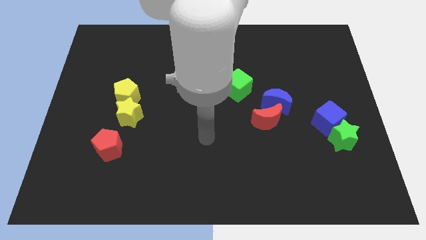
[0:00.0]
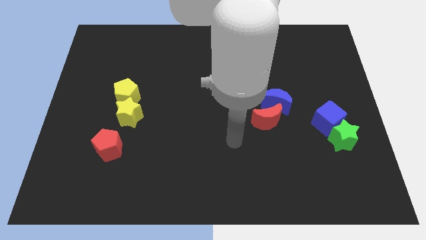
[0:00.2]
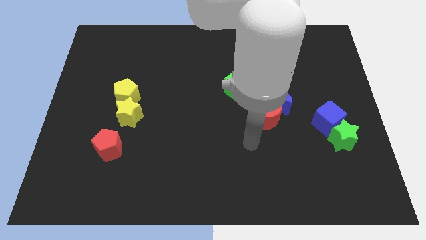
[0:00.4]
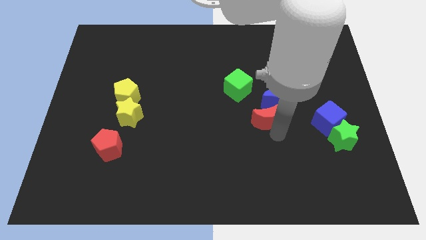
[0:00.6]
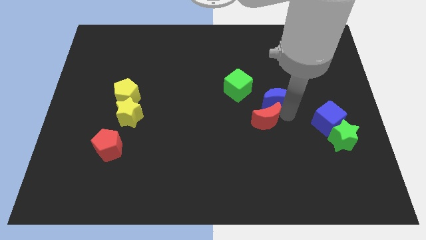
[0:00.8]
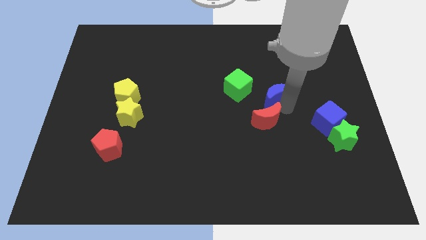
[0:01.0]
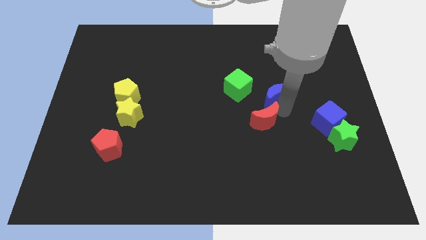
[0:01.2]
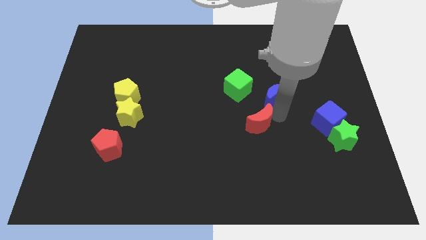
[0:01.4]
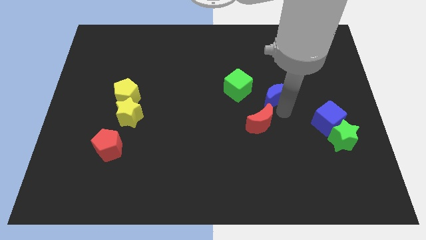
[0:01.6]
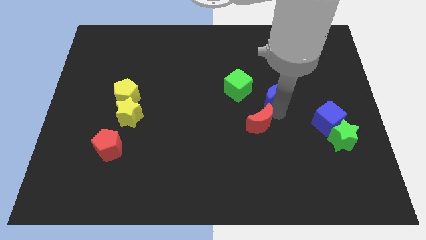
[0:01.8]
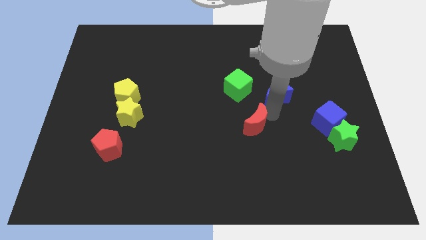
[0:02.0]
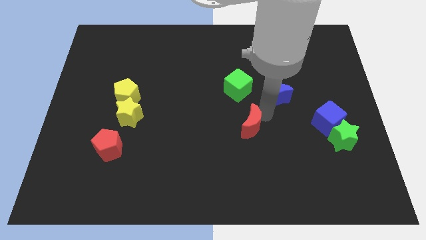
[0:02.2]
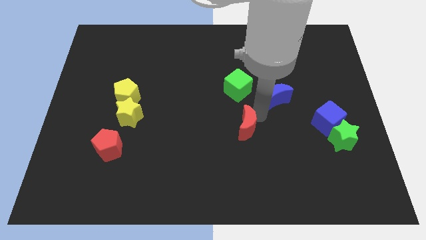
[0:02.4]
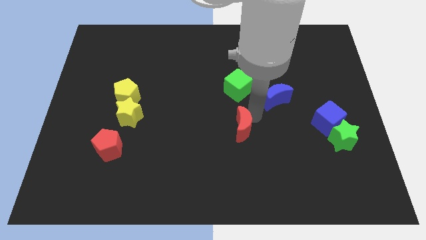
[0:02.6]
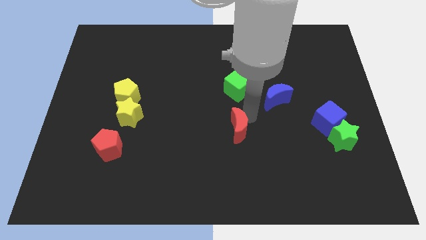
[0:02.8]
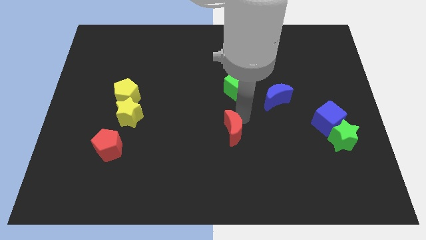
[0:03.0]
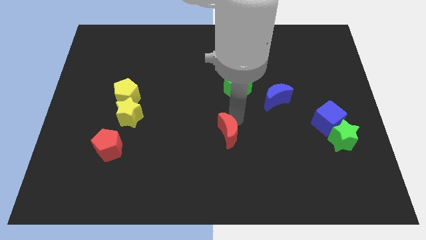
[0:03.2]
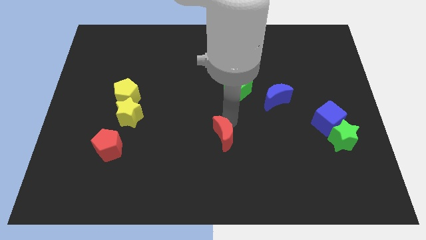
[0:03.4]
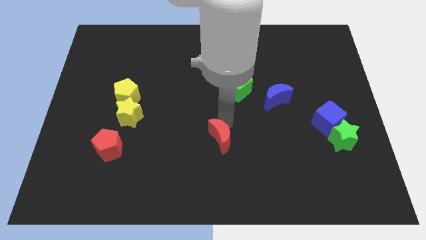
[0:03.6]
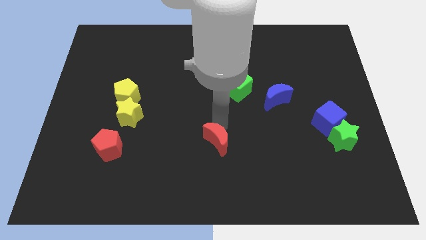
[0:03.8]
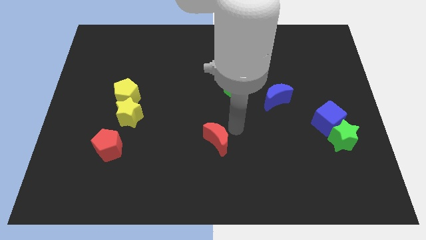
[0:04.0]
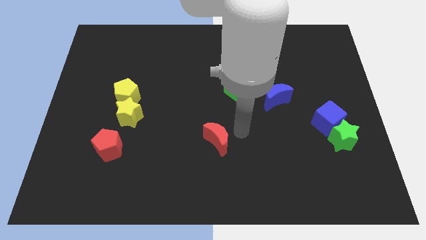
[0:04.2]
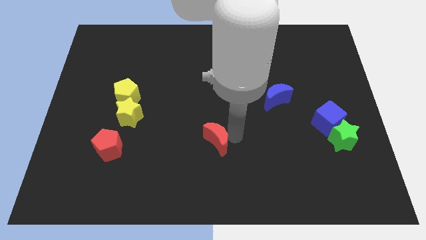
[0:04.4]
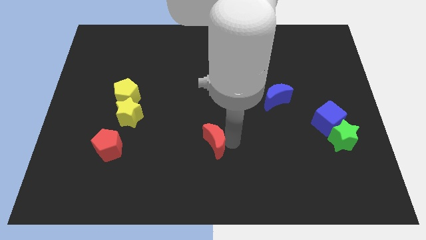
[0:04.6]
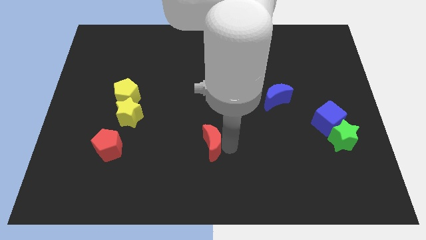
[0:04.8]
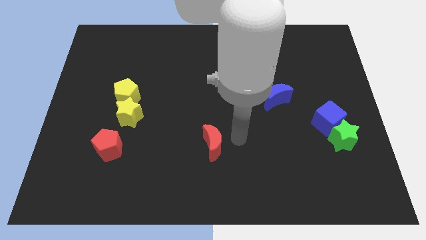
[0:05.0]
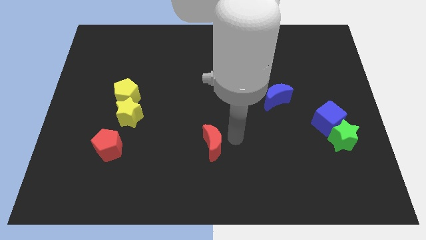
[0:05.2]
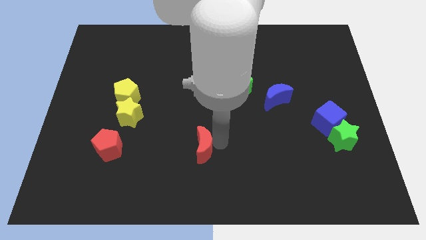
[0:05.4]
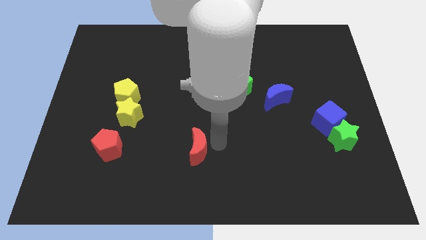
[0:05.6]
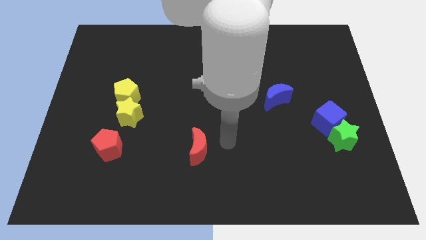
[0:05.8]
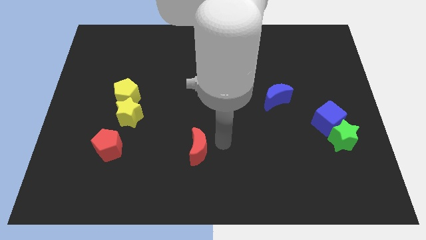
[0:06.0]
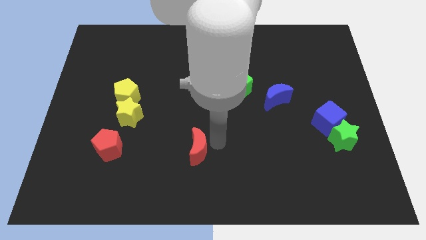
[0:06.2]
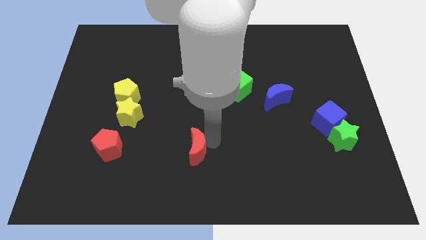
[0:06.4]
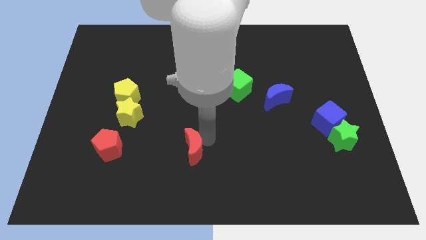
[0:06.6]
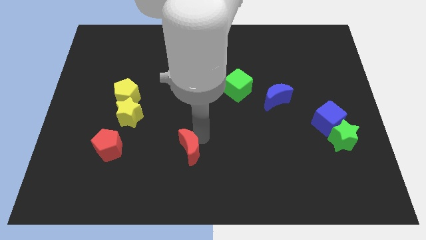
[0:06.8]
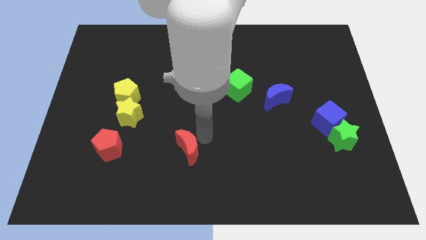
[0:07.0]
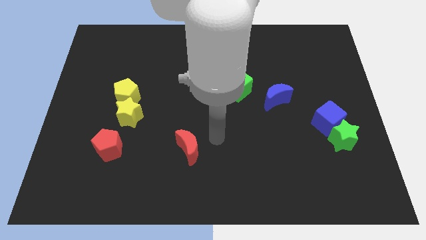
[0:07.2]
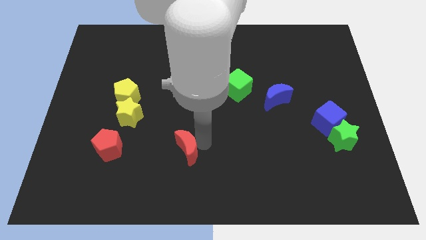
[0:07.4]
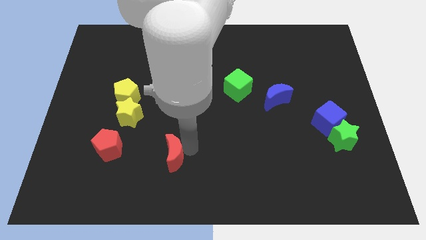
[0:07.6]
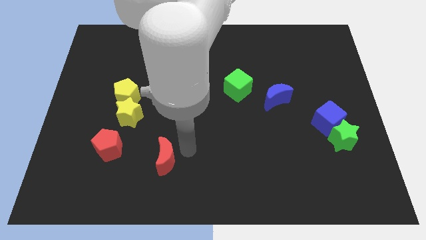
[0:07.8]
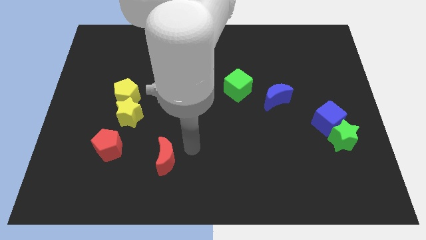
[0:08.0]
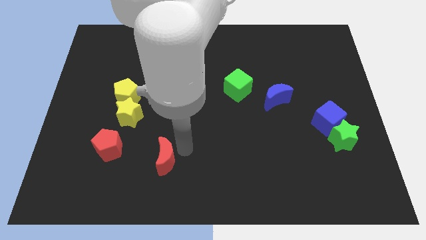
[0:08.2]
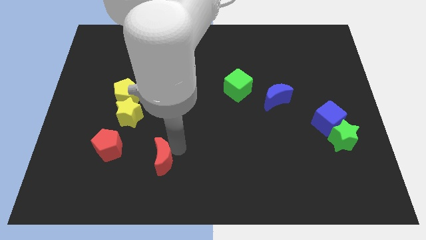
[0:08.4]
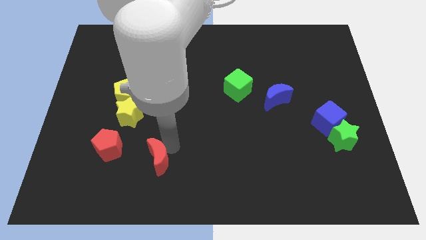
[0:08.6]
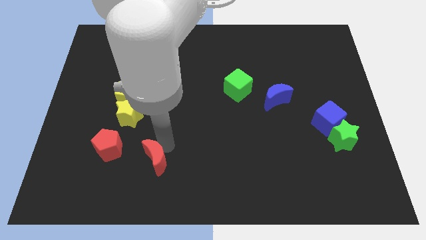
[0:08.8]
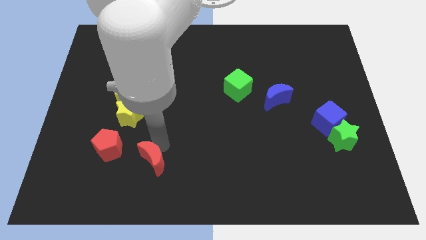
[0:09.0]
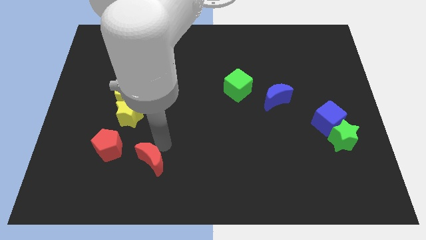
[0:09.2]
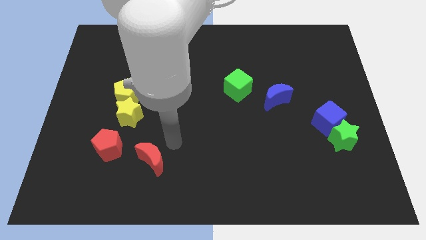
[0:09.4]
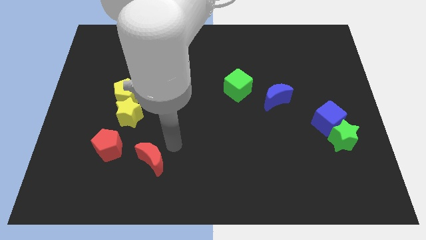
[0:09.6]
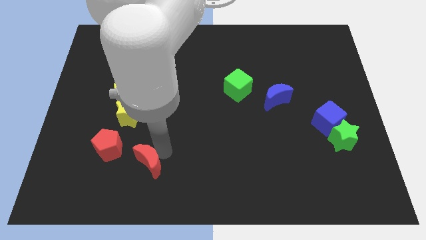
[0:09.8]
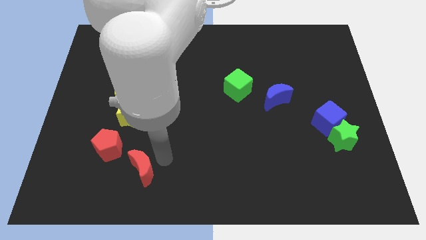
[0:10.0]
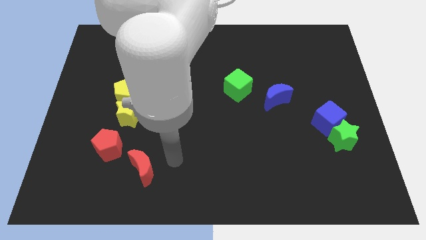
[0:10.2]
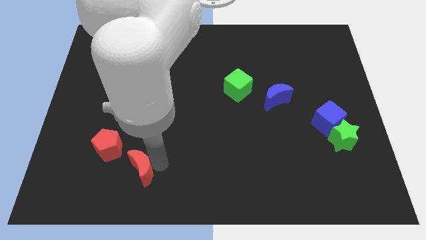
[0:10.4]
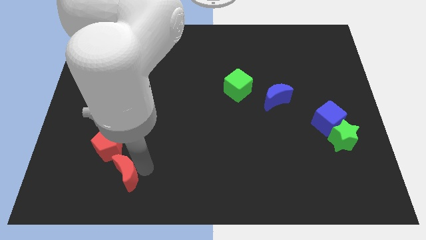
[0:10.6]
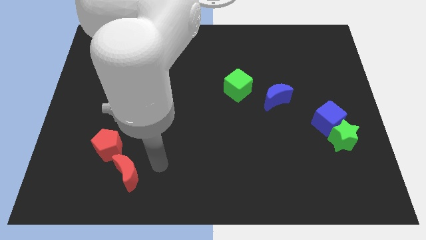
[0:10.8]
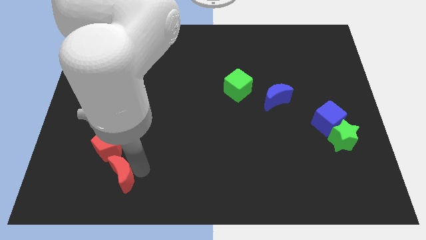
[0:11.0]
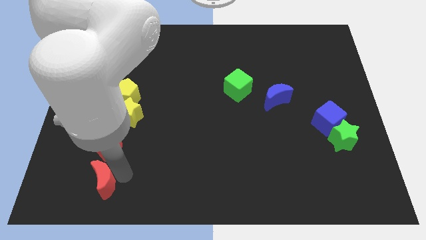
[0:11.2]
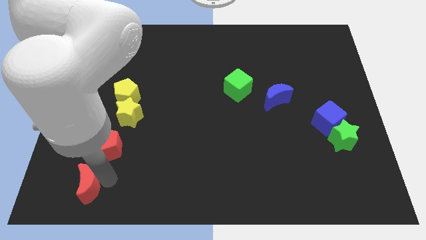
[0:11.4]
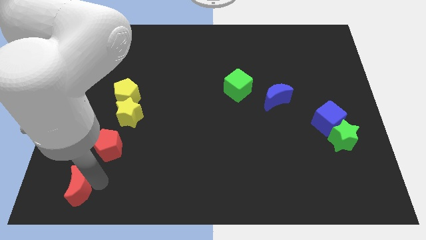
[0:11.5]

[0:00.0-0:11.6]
put the red moon to the lower left corner
